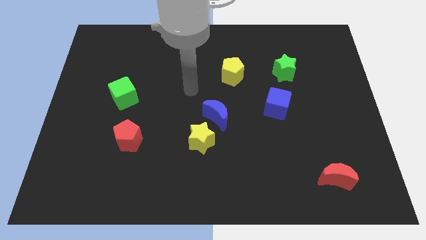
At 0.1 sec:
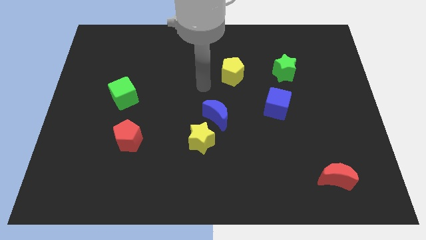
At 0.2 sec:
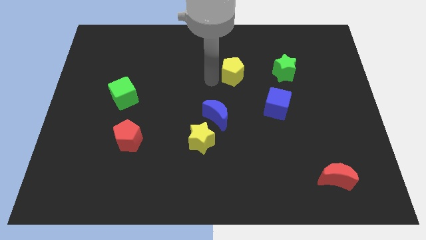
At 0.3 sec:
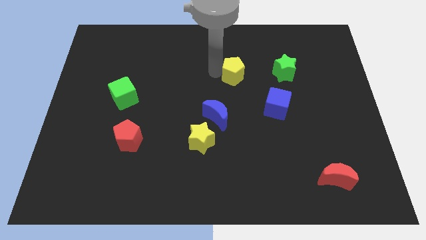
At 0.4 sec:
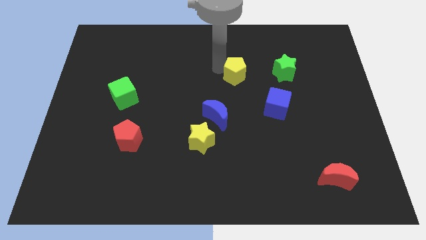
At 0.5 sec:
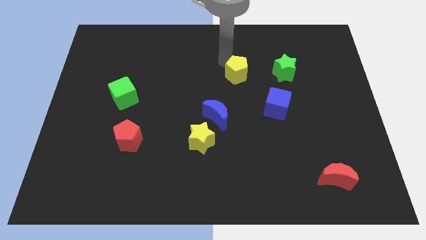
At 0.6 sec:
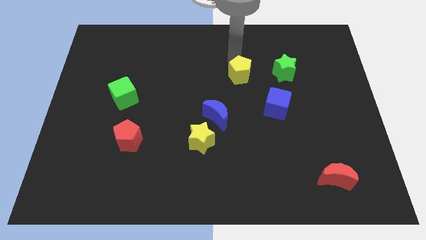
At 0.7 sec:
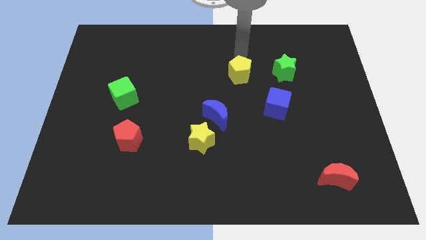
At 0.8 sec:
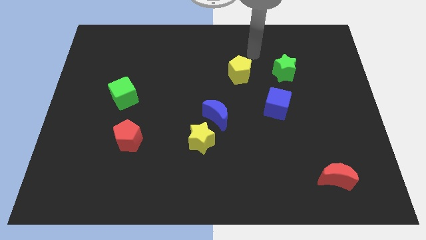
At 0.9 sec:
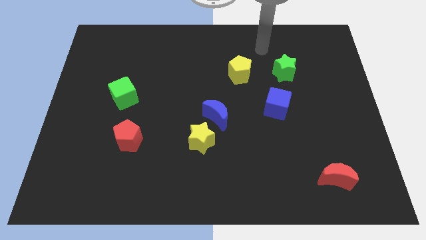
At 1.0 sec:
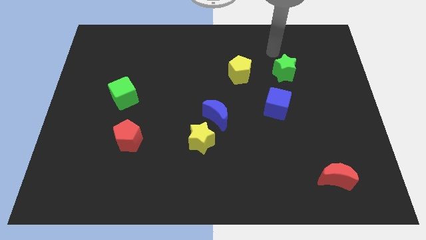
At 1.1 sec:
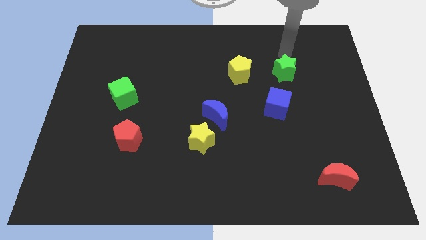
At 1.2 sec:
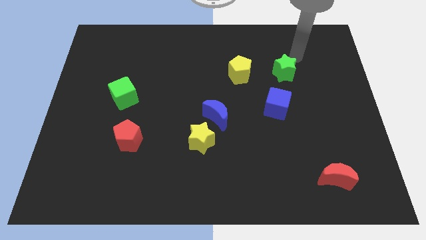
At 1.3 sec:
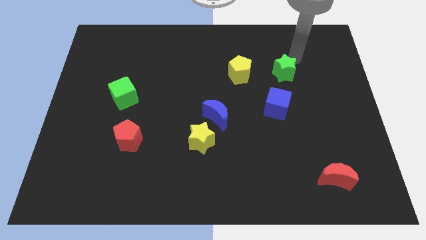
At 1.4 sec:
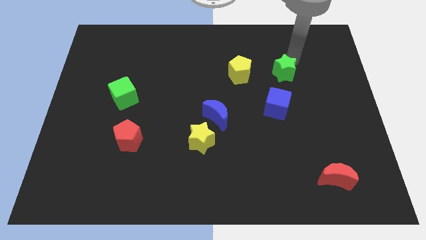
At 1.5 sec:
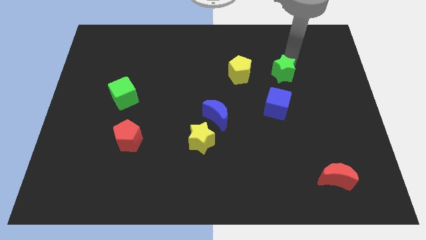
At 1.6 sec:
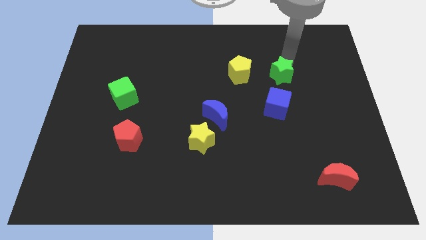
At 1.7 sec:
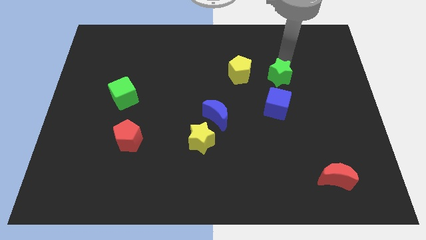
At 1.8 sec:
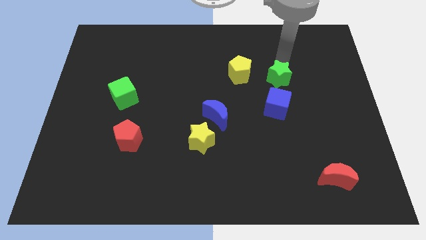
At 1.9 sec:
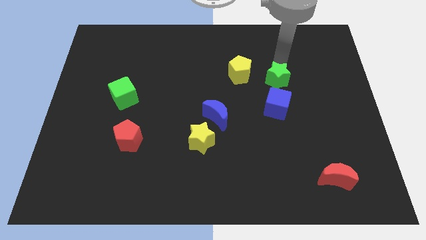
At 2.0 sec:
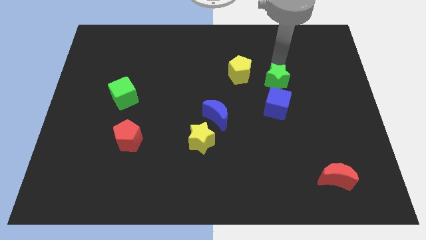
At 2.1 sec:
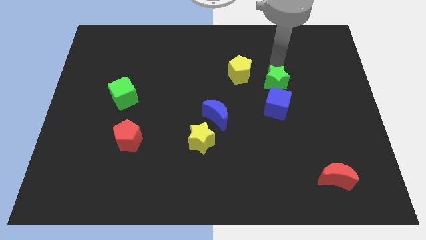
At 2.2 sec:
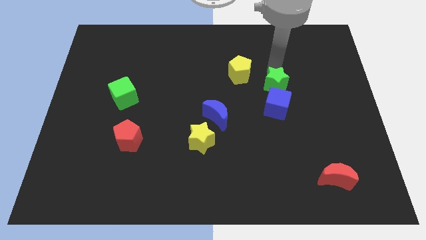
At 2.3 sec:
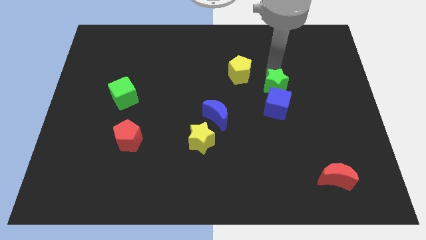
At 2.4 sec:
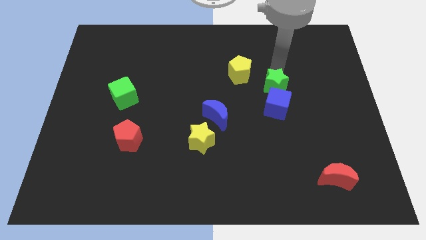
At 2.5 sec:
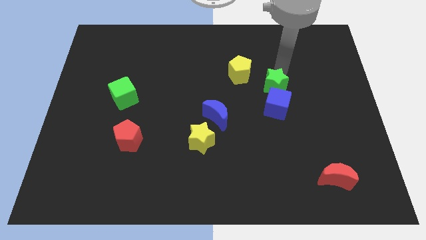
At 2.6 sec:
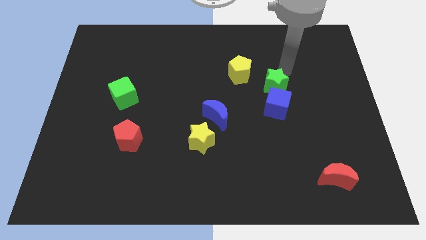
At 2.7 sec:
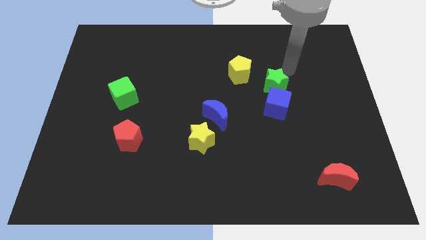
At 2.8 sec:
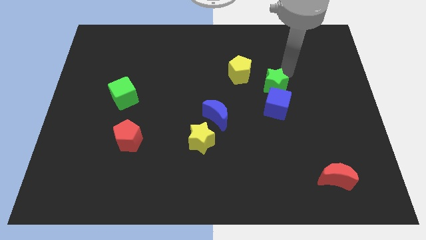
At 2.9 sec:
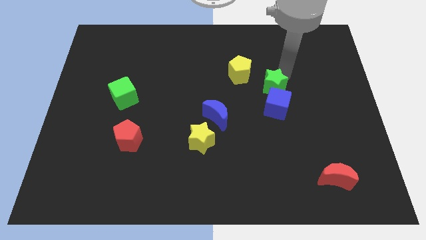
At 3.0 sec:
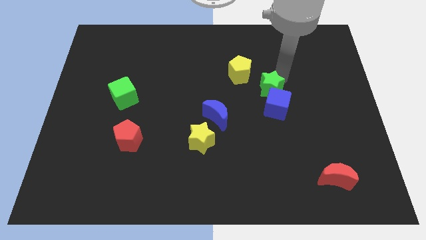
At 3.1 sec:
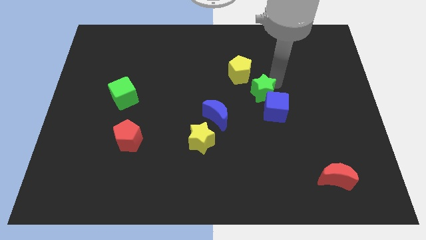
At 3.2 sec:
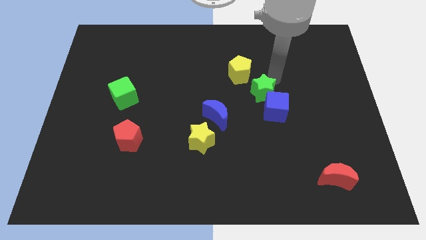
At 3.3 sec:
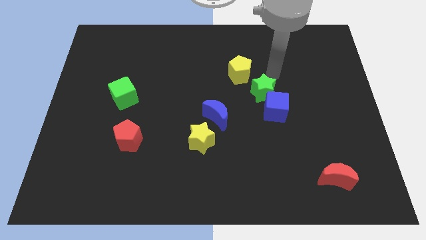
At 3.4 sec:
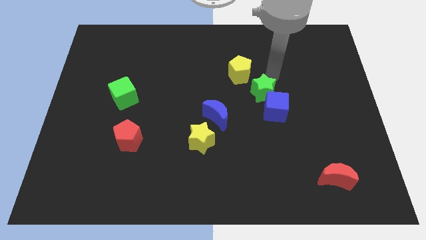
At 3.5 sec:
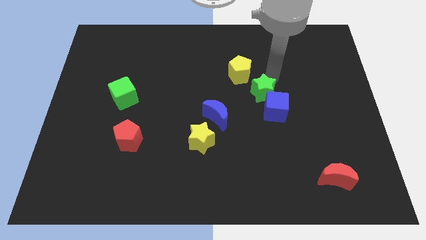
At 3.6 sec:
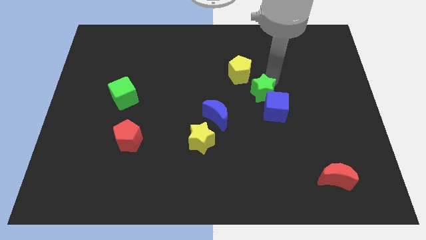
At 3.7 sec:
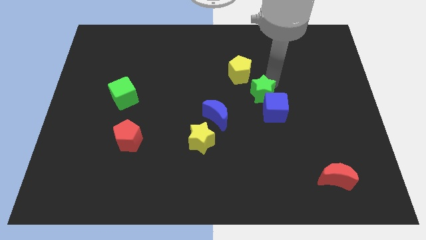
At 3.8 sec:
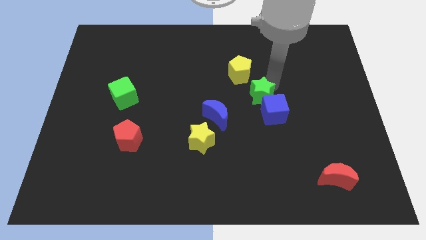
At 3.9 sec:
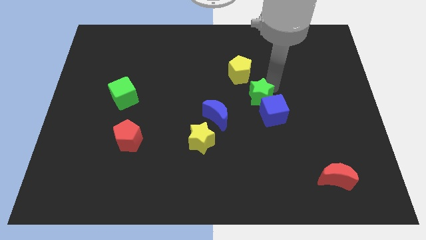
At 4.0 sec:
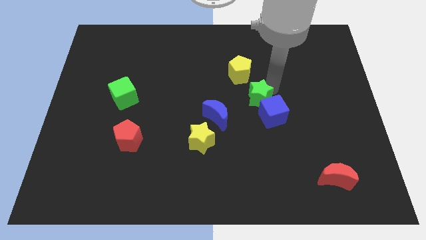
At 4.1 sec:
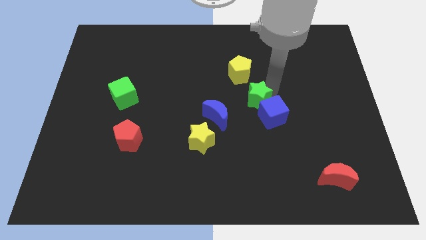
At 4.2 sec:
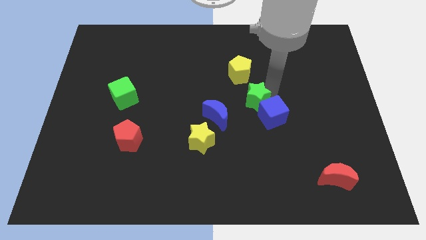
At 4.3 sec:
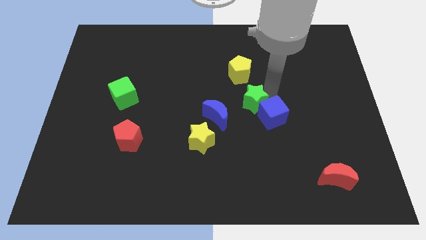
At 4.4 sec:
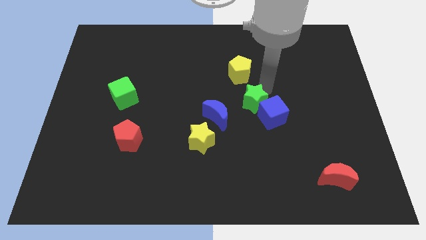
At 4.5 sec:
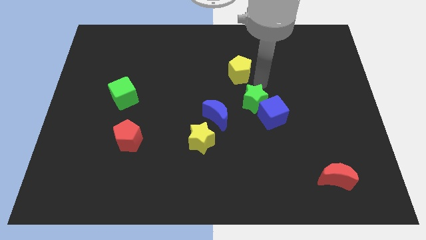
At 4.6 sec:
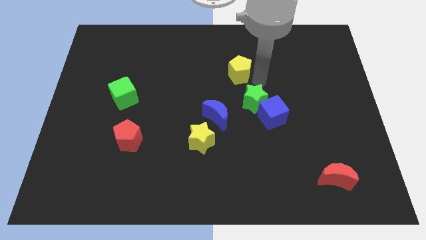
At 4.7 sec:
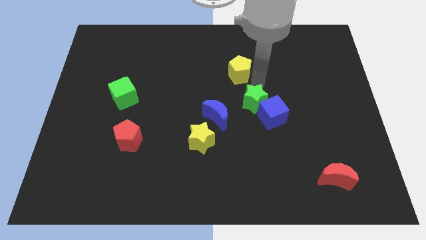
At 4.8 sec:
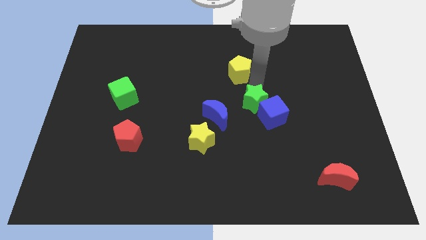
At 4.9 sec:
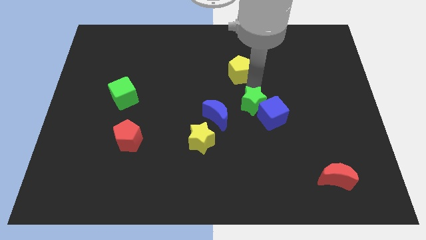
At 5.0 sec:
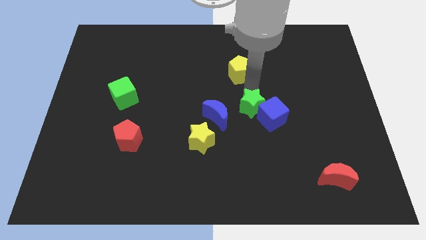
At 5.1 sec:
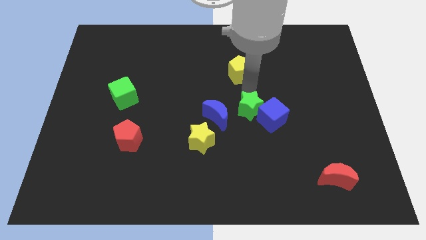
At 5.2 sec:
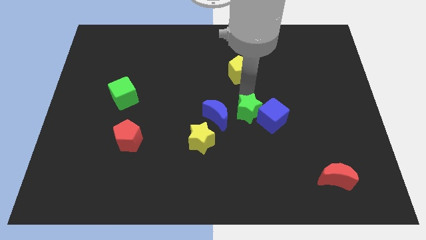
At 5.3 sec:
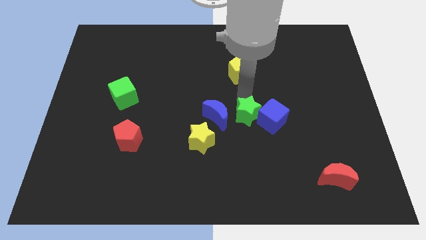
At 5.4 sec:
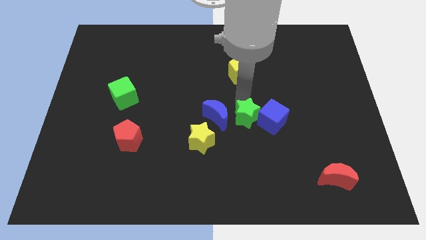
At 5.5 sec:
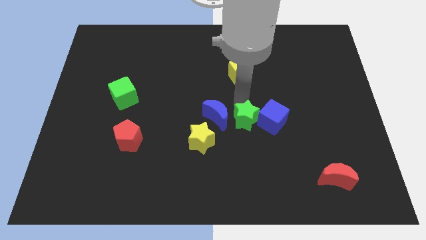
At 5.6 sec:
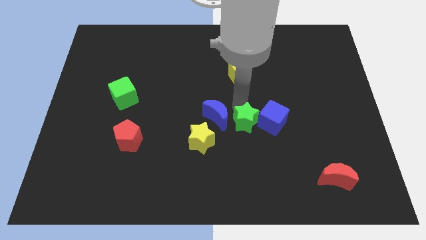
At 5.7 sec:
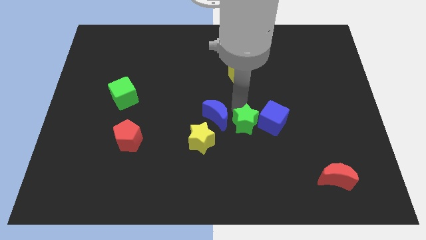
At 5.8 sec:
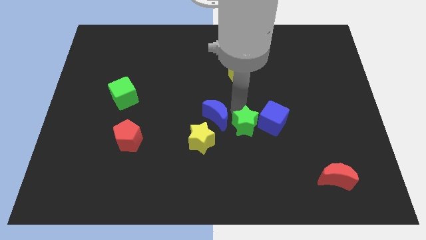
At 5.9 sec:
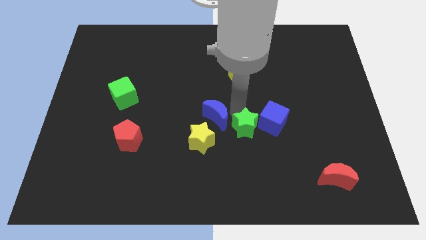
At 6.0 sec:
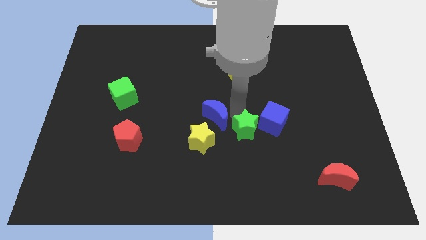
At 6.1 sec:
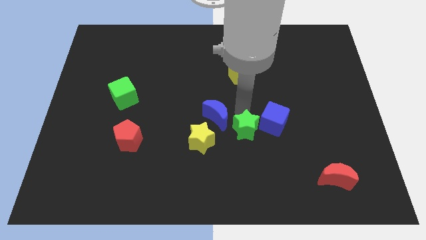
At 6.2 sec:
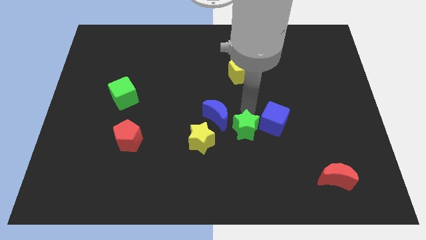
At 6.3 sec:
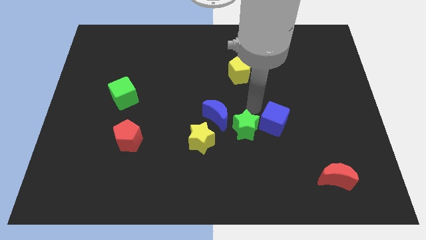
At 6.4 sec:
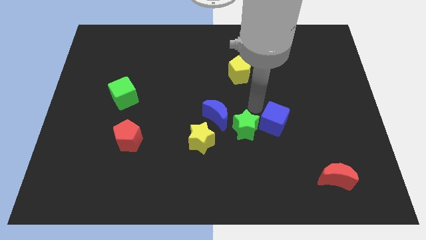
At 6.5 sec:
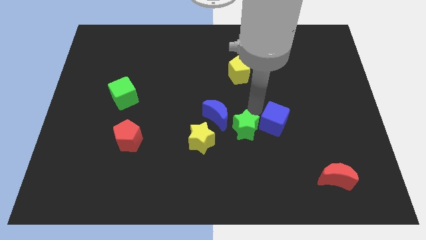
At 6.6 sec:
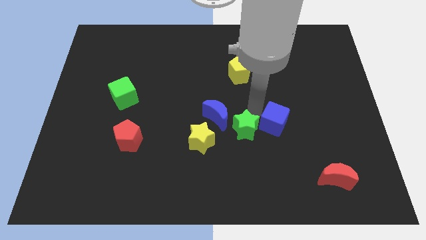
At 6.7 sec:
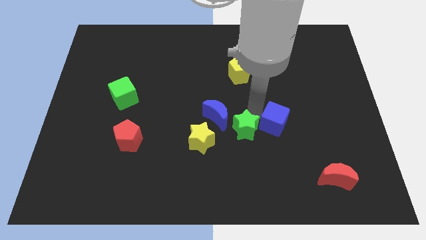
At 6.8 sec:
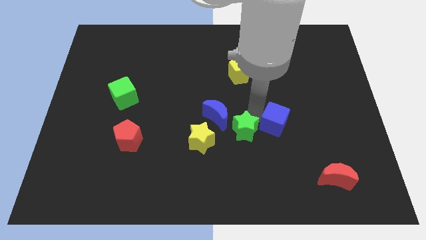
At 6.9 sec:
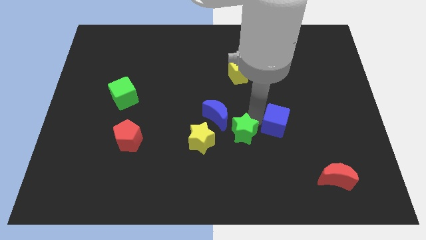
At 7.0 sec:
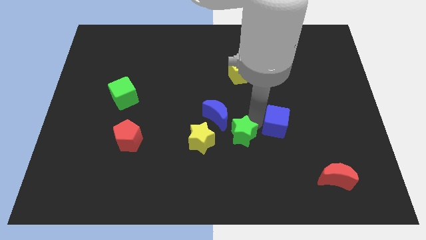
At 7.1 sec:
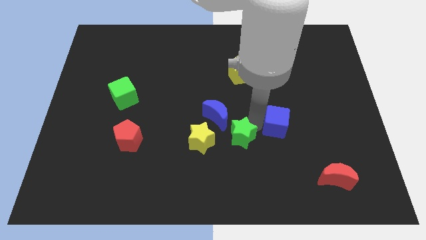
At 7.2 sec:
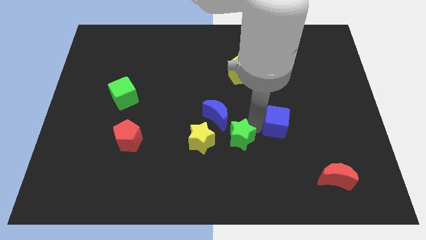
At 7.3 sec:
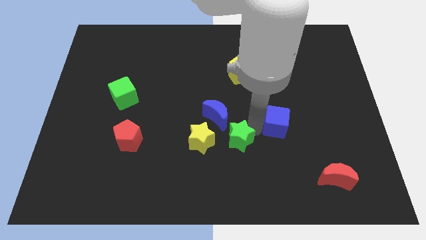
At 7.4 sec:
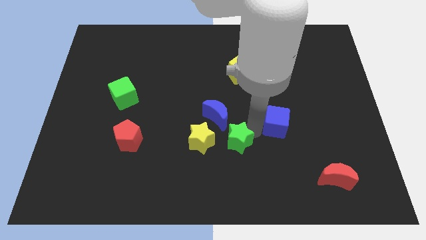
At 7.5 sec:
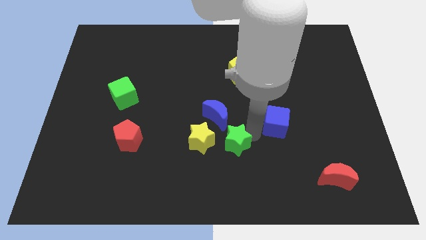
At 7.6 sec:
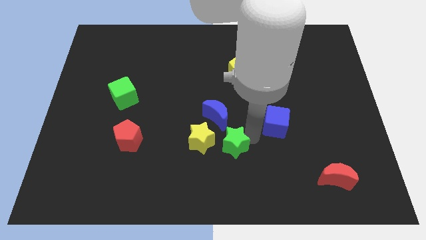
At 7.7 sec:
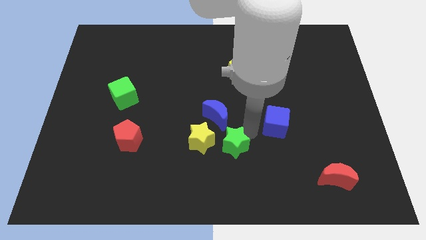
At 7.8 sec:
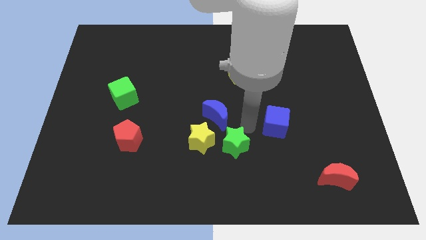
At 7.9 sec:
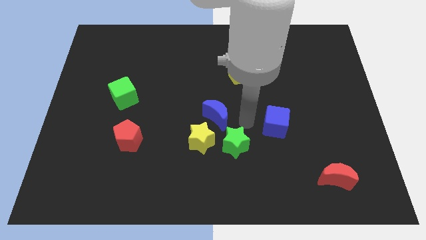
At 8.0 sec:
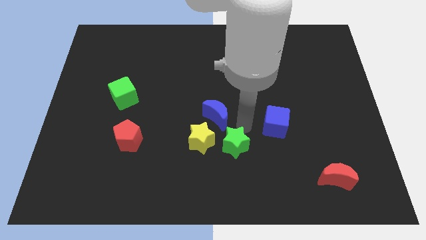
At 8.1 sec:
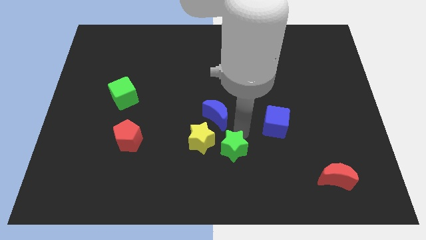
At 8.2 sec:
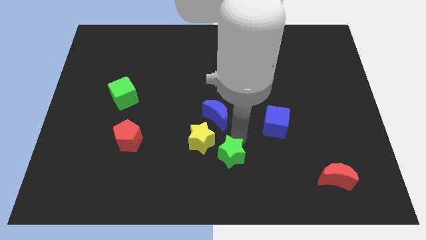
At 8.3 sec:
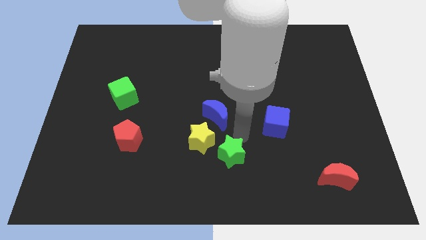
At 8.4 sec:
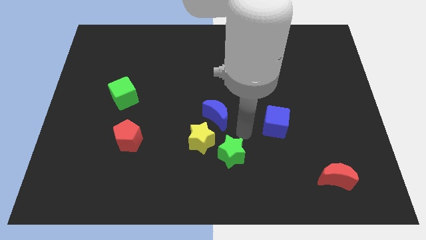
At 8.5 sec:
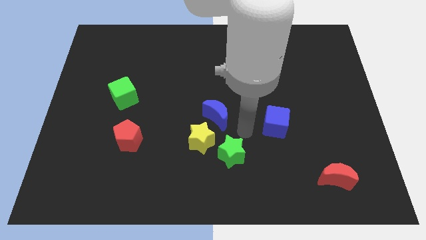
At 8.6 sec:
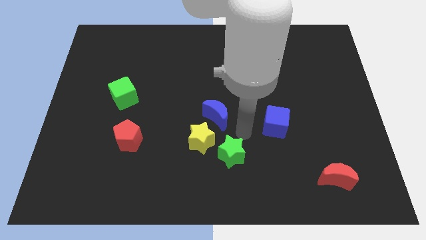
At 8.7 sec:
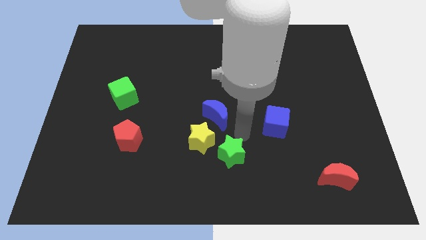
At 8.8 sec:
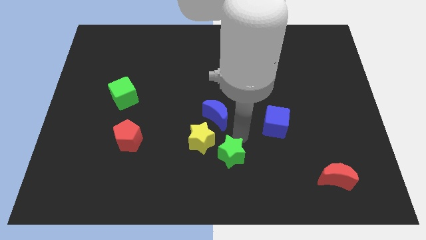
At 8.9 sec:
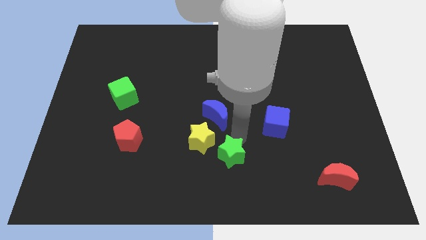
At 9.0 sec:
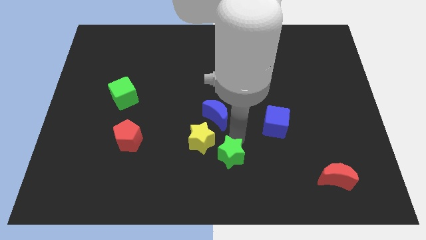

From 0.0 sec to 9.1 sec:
move the green star to the bottom
